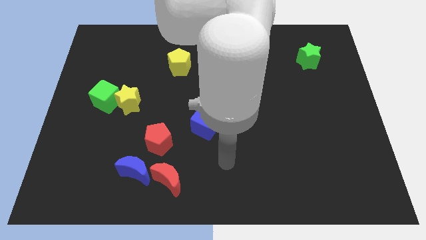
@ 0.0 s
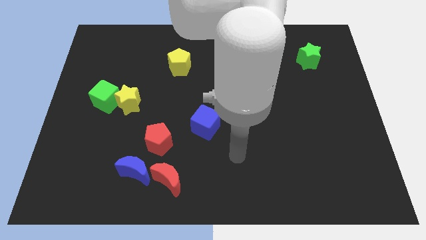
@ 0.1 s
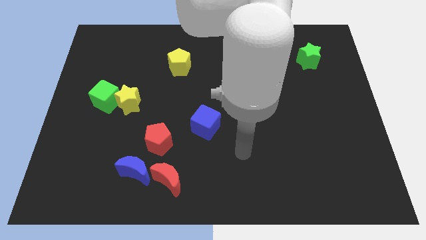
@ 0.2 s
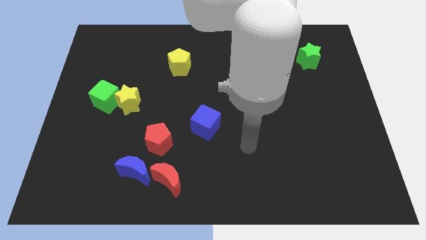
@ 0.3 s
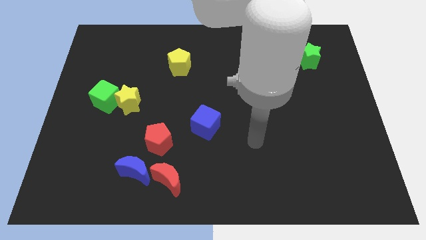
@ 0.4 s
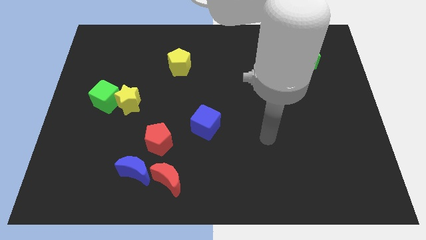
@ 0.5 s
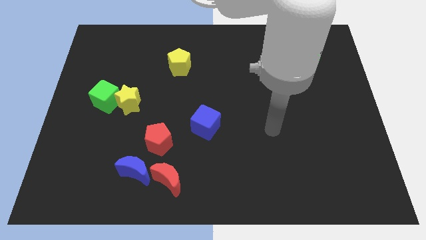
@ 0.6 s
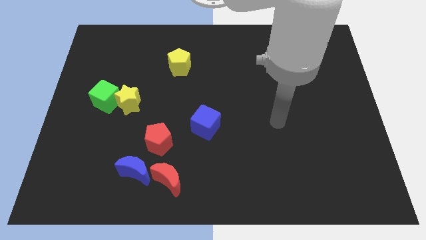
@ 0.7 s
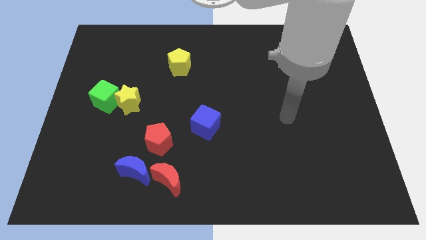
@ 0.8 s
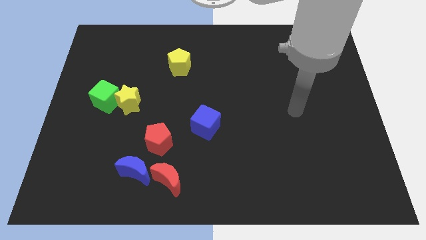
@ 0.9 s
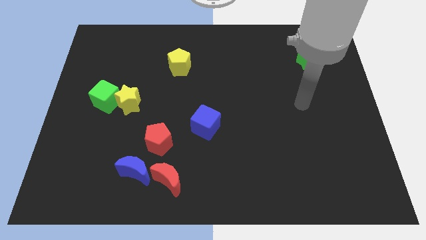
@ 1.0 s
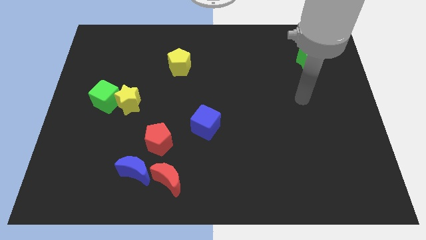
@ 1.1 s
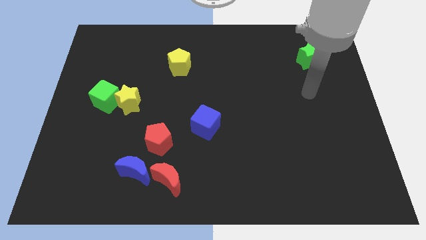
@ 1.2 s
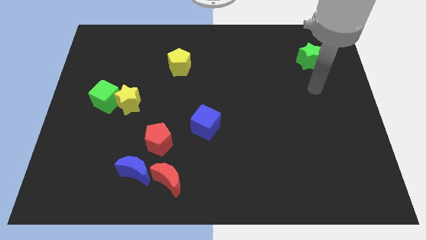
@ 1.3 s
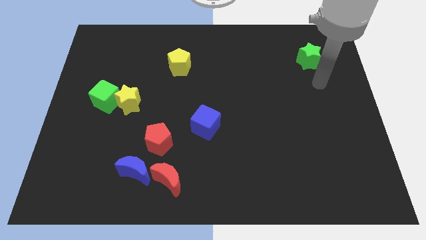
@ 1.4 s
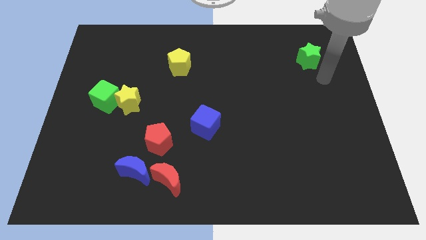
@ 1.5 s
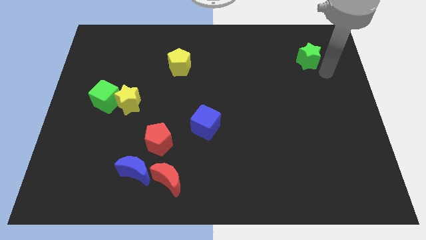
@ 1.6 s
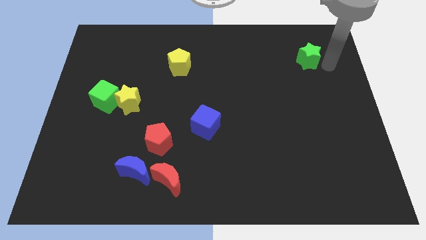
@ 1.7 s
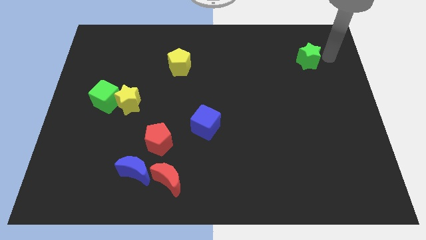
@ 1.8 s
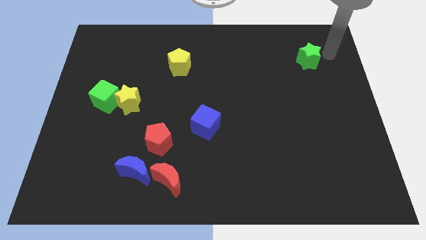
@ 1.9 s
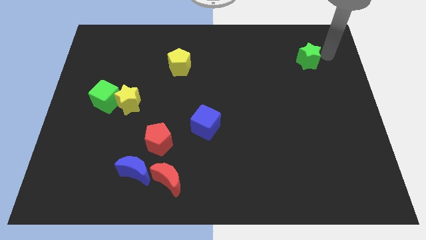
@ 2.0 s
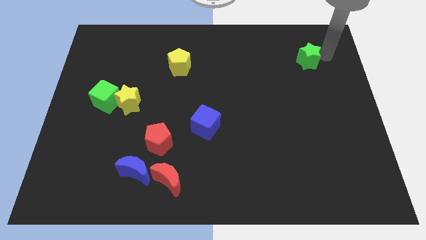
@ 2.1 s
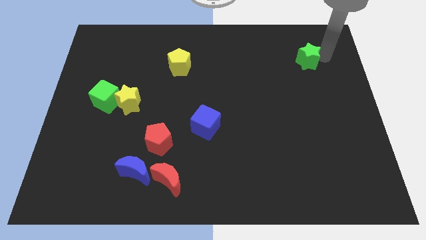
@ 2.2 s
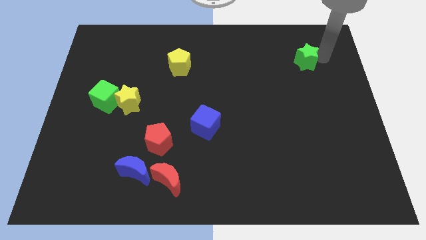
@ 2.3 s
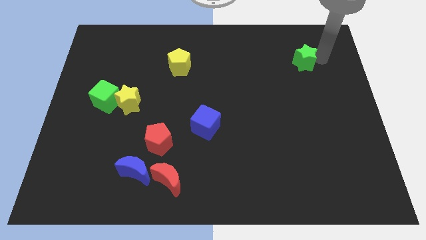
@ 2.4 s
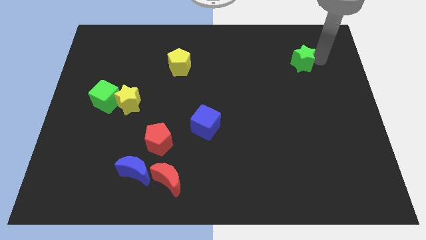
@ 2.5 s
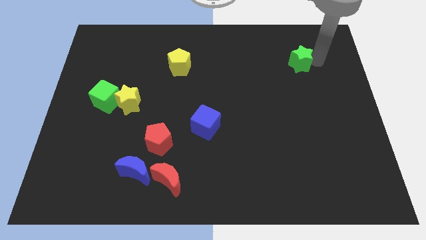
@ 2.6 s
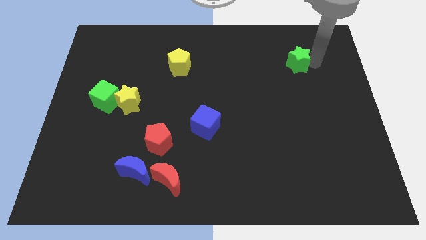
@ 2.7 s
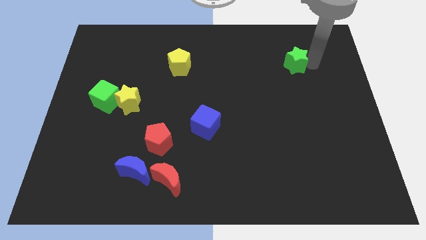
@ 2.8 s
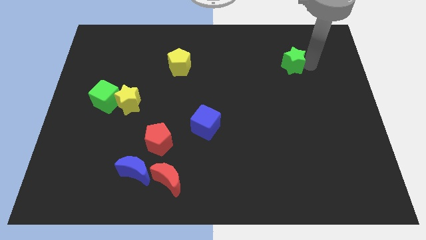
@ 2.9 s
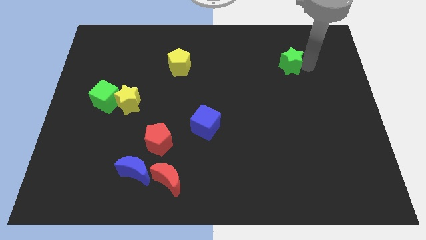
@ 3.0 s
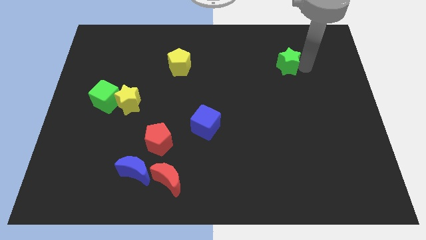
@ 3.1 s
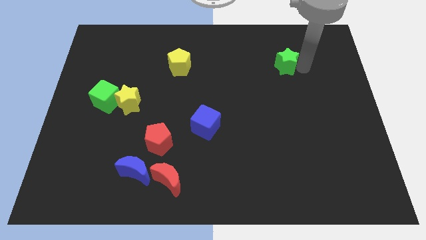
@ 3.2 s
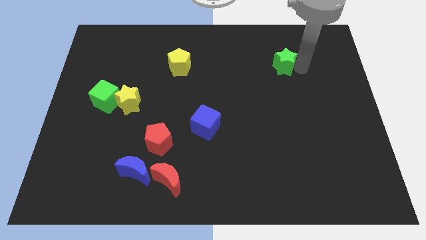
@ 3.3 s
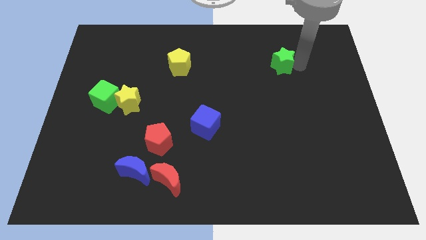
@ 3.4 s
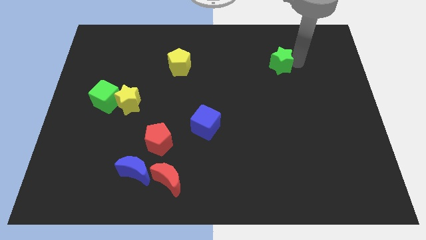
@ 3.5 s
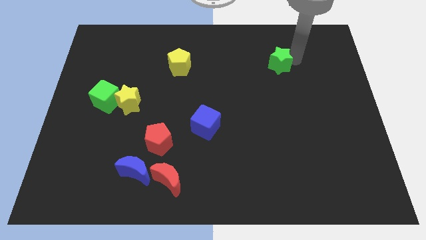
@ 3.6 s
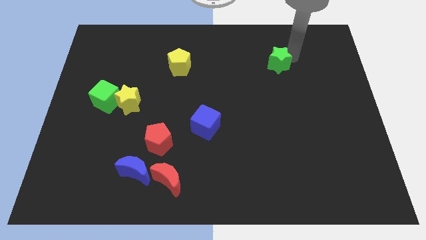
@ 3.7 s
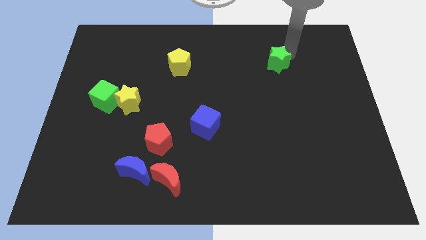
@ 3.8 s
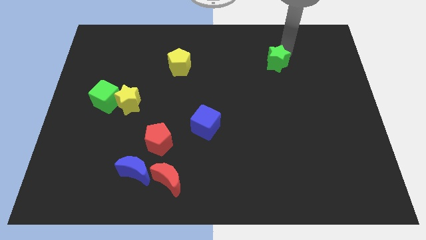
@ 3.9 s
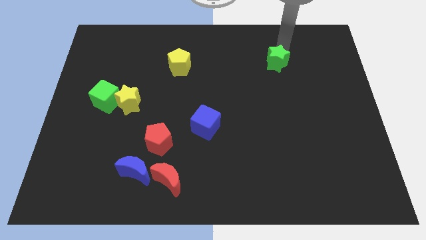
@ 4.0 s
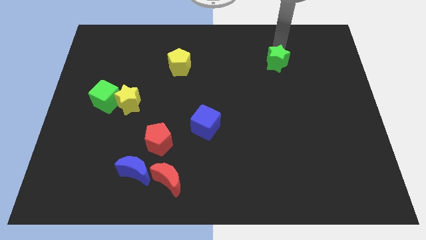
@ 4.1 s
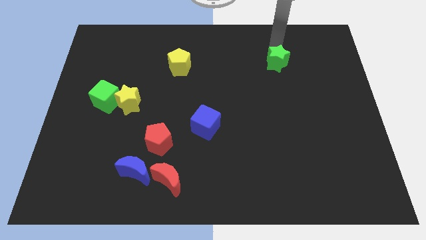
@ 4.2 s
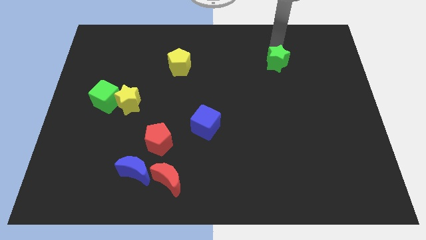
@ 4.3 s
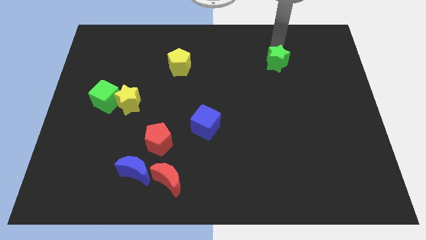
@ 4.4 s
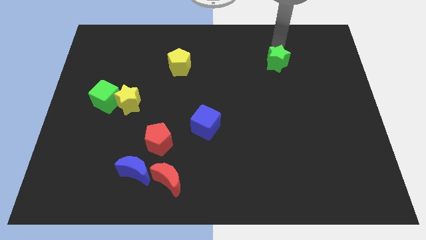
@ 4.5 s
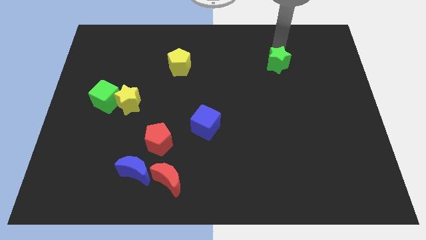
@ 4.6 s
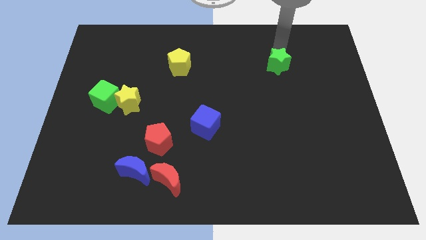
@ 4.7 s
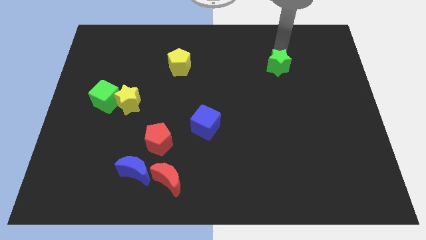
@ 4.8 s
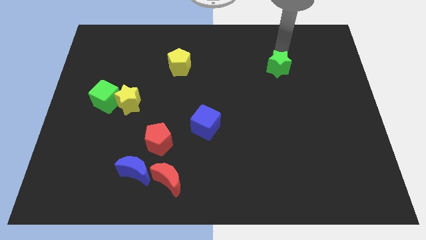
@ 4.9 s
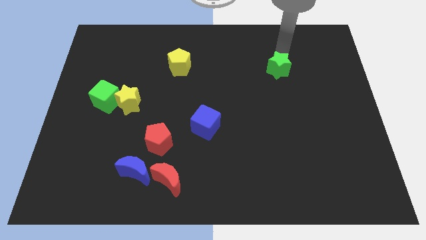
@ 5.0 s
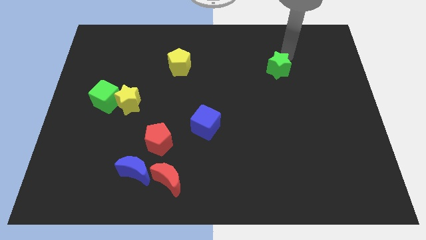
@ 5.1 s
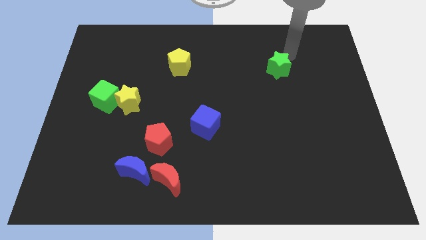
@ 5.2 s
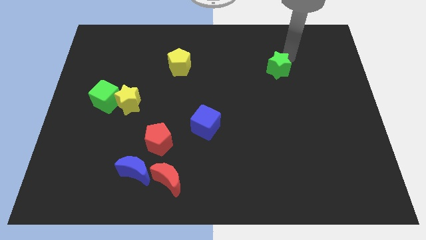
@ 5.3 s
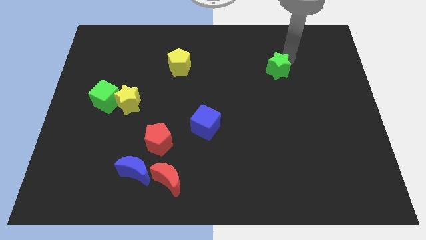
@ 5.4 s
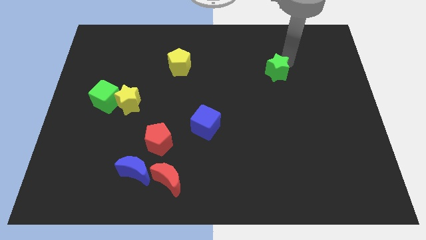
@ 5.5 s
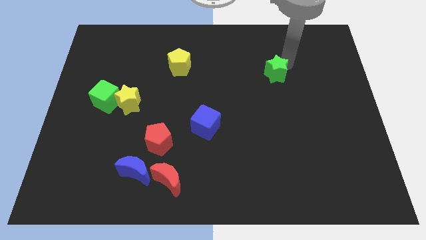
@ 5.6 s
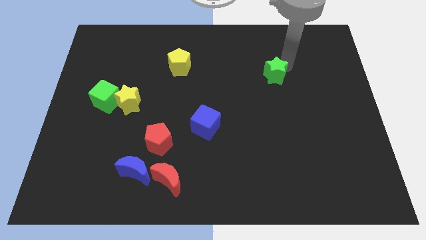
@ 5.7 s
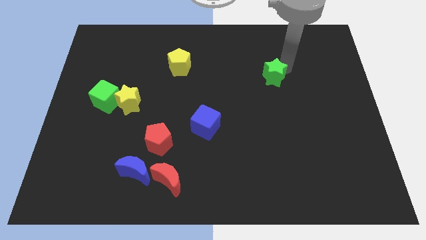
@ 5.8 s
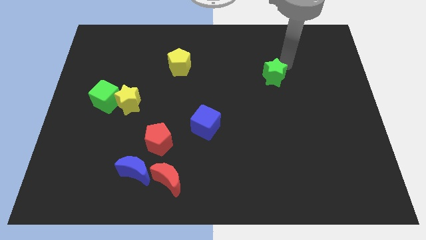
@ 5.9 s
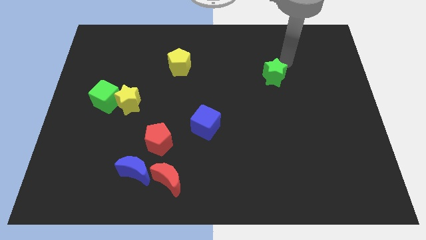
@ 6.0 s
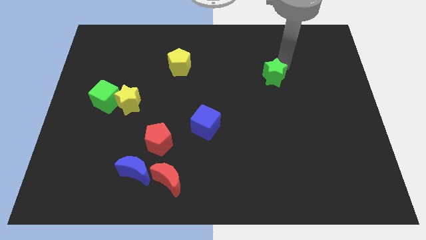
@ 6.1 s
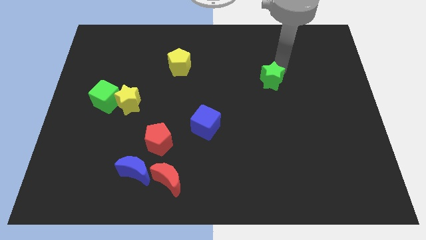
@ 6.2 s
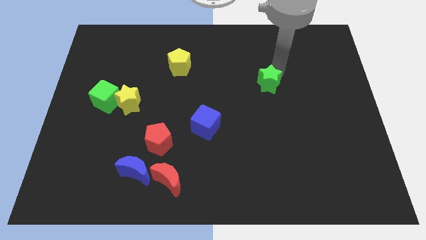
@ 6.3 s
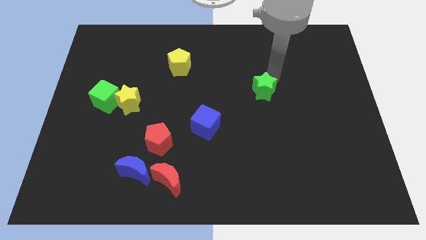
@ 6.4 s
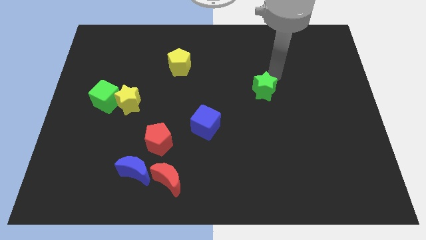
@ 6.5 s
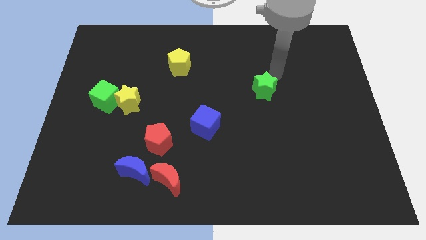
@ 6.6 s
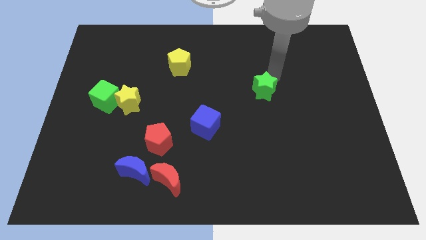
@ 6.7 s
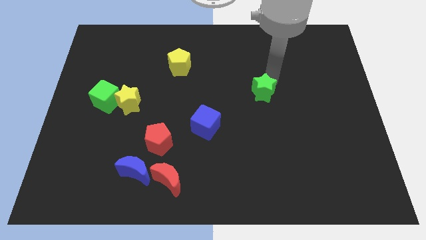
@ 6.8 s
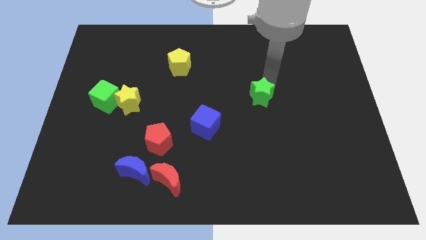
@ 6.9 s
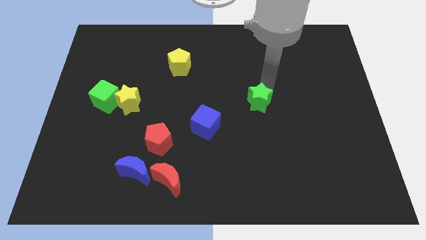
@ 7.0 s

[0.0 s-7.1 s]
slide the green star down and then to the left

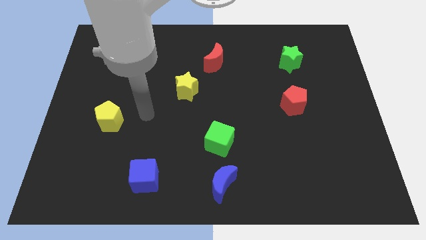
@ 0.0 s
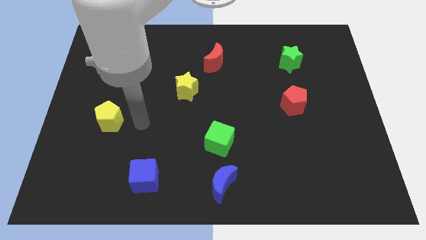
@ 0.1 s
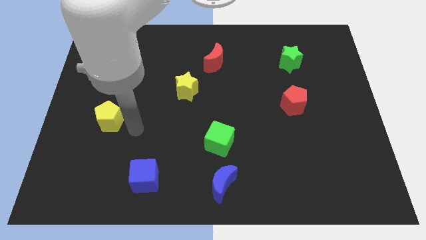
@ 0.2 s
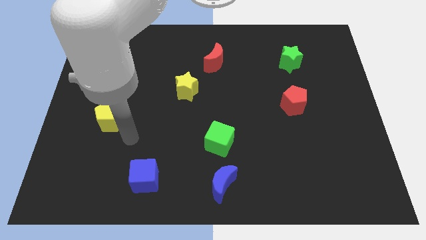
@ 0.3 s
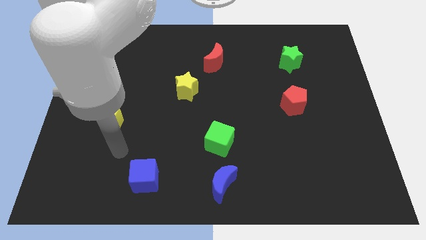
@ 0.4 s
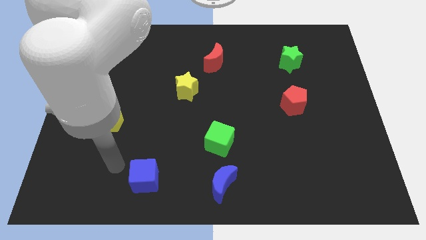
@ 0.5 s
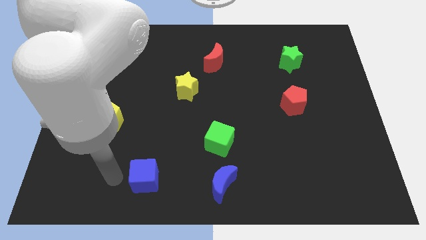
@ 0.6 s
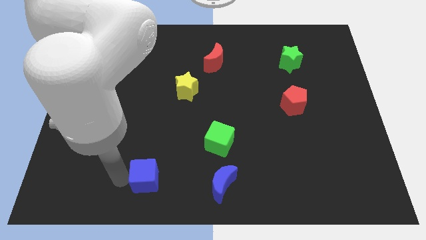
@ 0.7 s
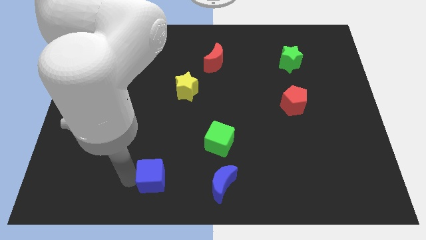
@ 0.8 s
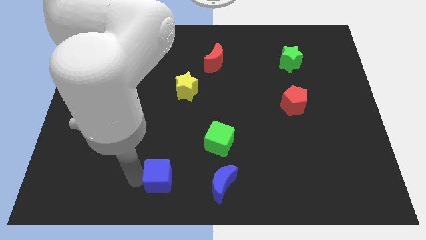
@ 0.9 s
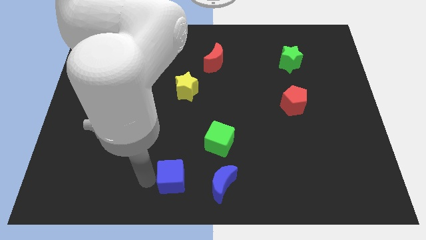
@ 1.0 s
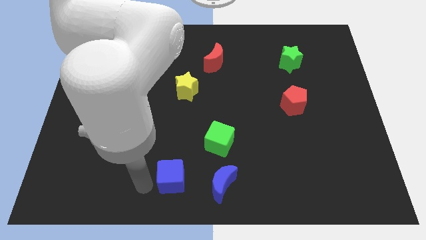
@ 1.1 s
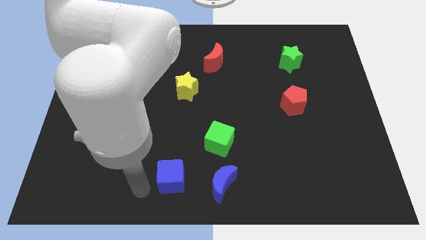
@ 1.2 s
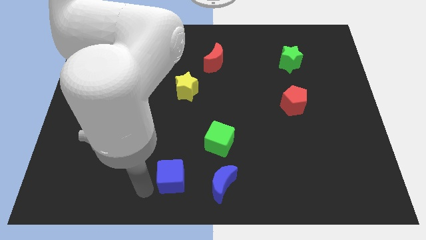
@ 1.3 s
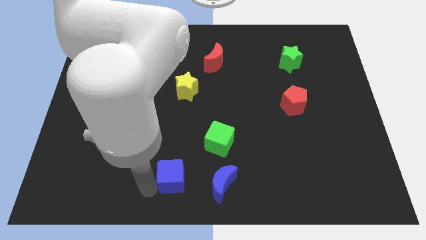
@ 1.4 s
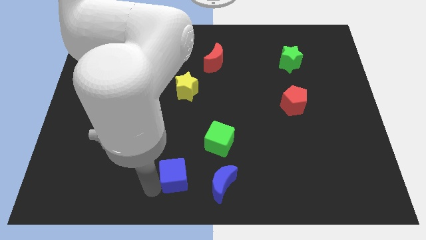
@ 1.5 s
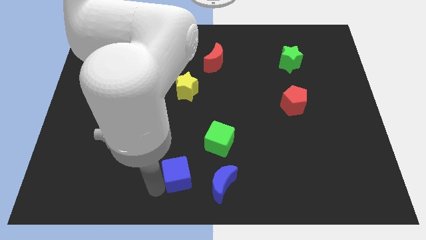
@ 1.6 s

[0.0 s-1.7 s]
move the blue cube right somewhat
